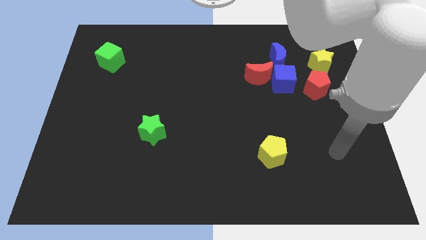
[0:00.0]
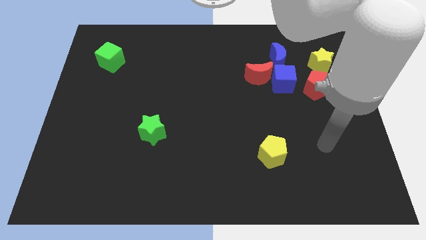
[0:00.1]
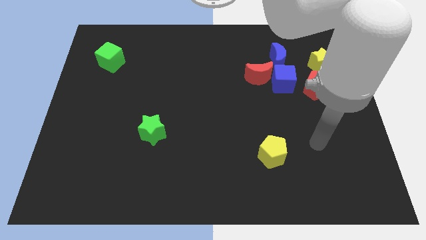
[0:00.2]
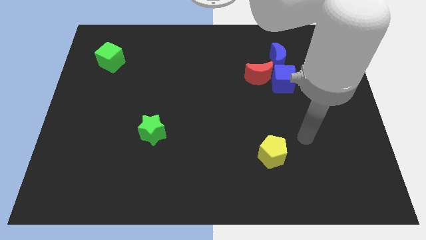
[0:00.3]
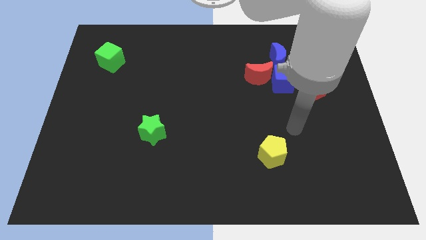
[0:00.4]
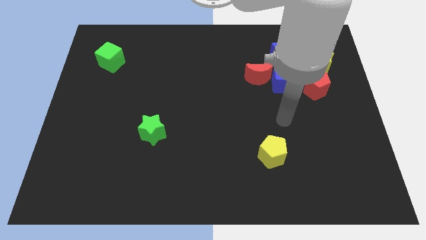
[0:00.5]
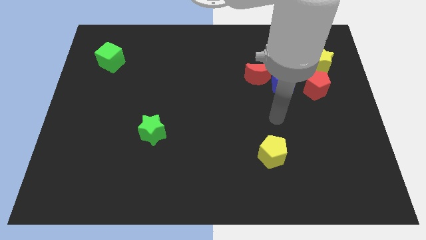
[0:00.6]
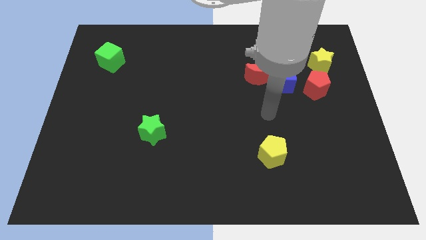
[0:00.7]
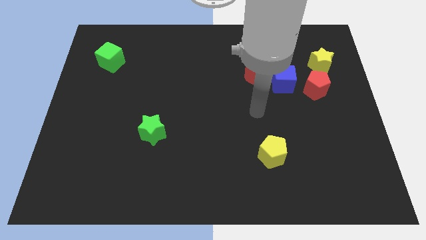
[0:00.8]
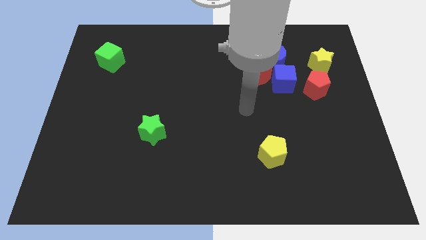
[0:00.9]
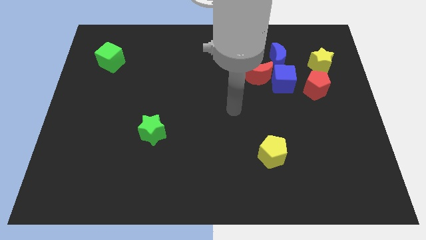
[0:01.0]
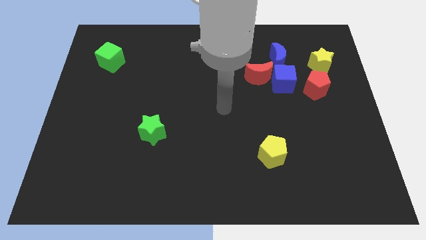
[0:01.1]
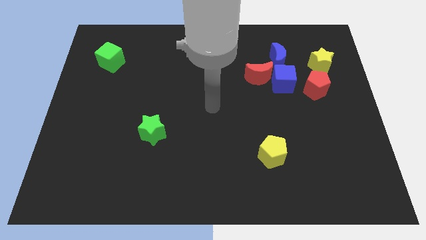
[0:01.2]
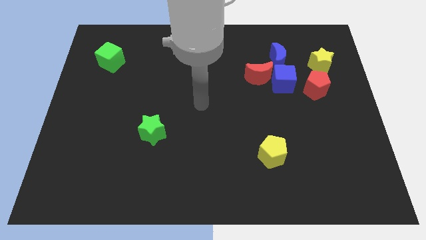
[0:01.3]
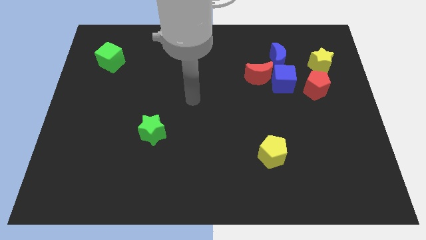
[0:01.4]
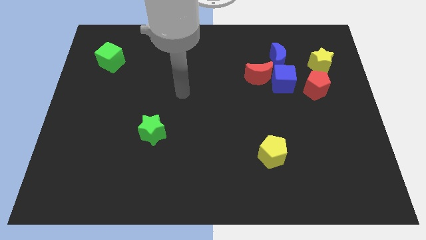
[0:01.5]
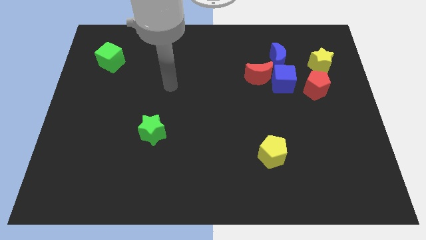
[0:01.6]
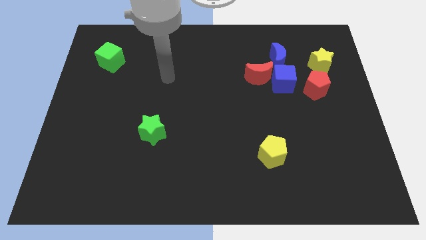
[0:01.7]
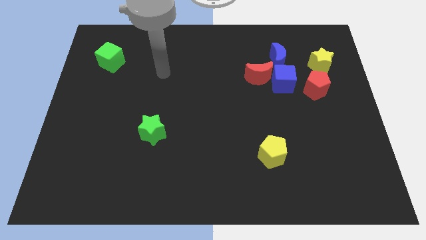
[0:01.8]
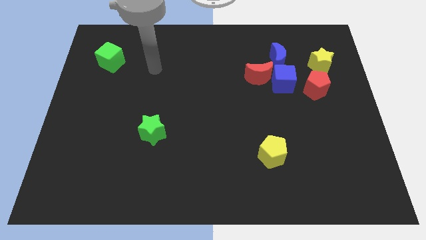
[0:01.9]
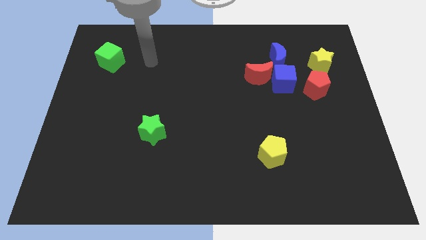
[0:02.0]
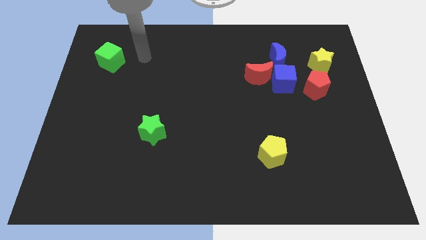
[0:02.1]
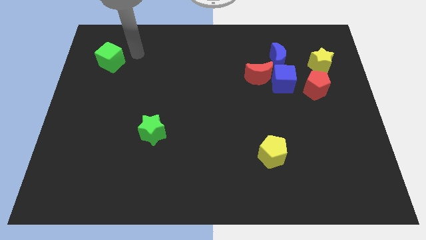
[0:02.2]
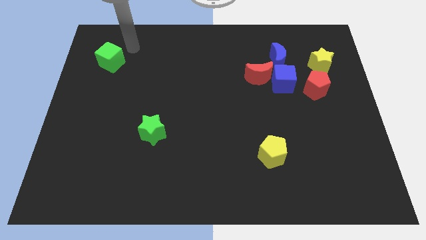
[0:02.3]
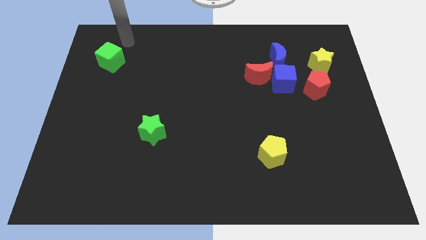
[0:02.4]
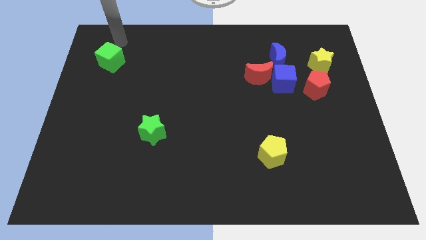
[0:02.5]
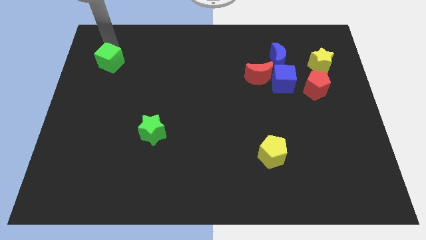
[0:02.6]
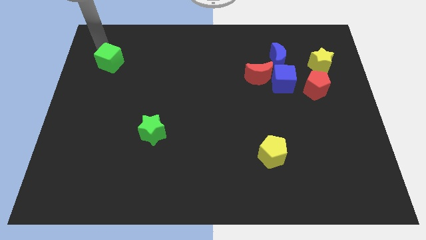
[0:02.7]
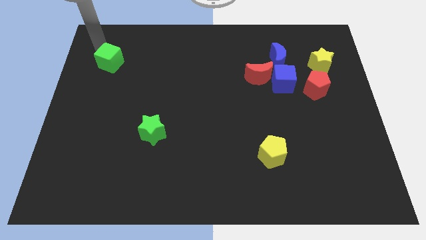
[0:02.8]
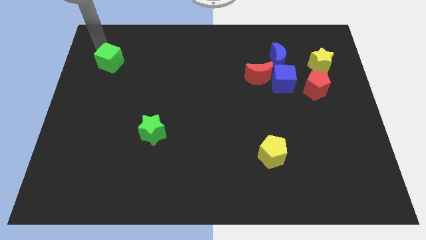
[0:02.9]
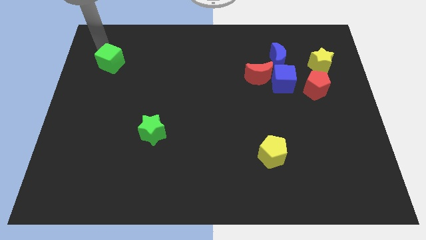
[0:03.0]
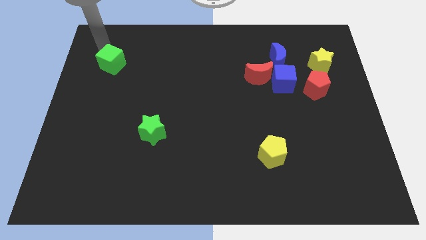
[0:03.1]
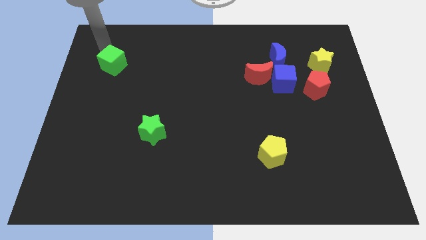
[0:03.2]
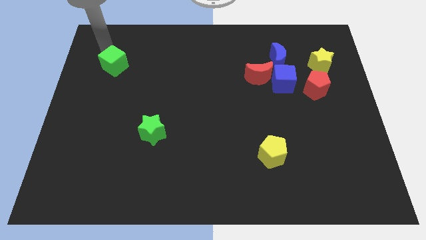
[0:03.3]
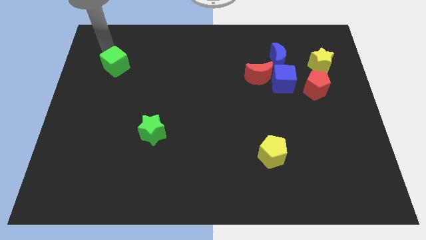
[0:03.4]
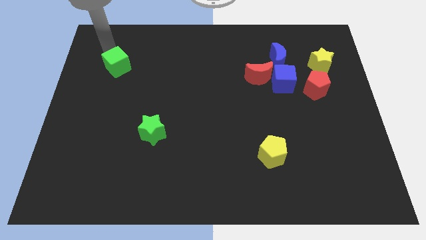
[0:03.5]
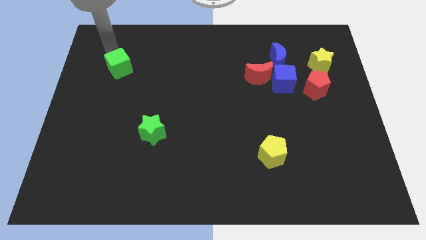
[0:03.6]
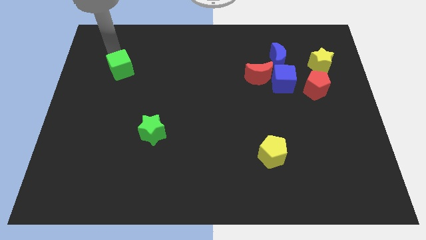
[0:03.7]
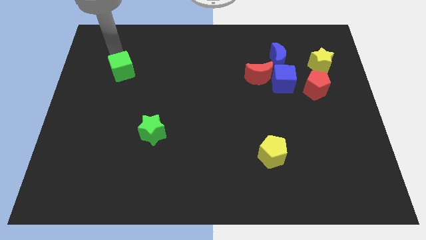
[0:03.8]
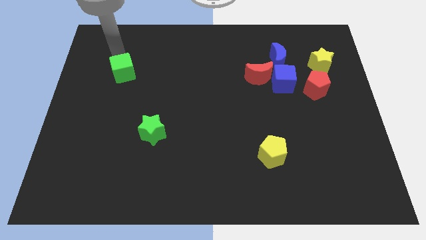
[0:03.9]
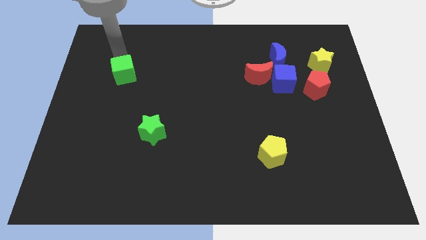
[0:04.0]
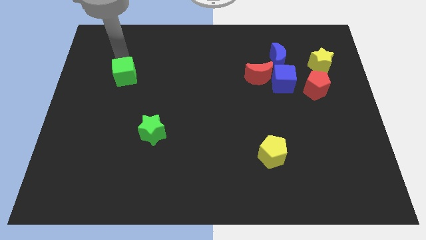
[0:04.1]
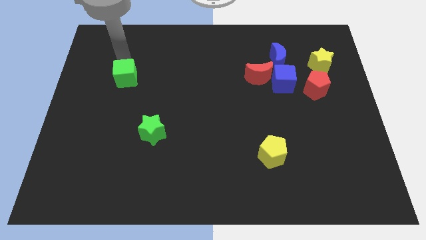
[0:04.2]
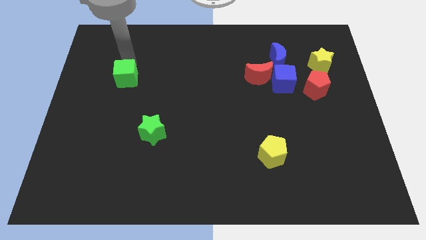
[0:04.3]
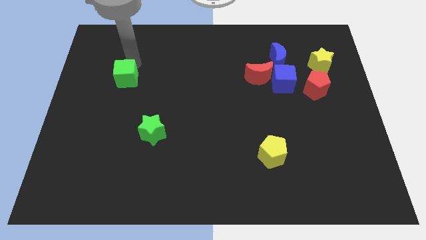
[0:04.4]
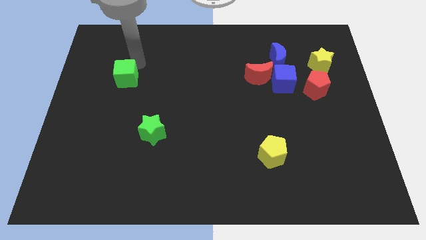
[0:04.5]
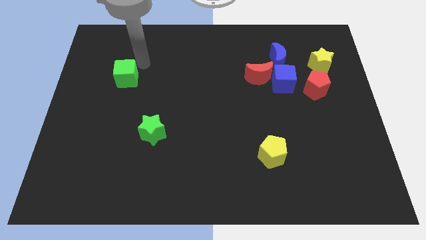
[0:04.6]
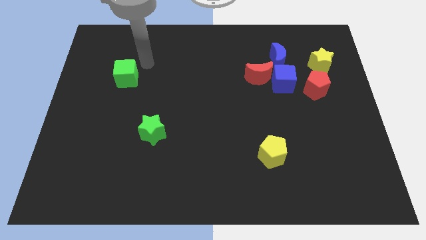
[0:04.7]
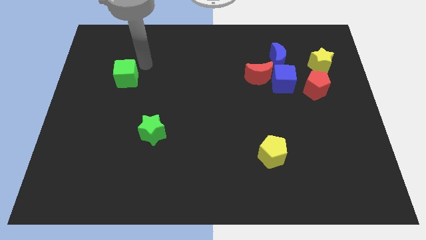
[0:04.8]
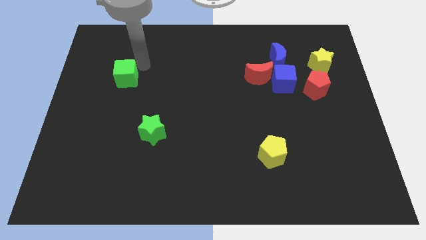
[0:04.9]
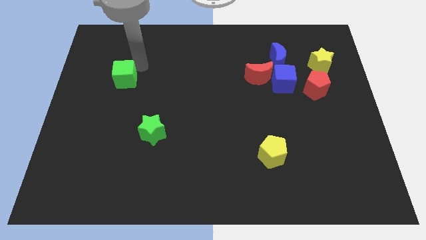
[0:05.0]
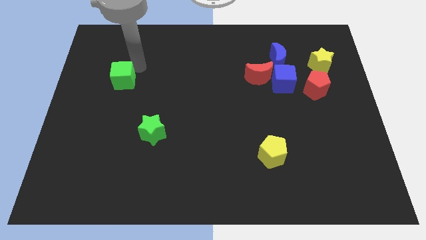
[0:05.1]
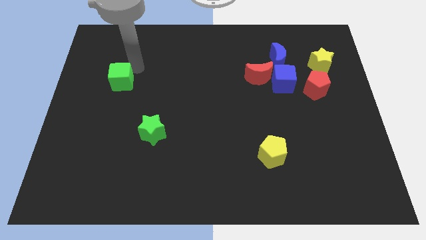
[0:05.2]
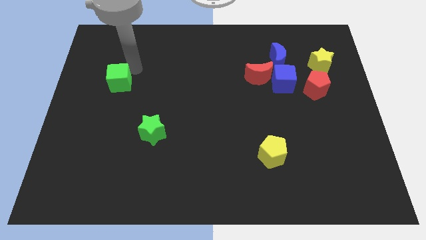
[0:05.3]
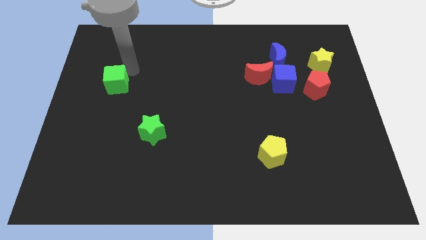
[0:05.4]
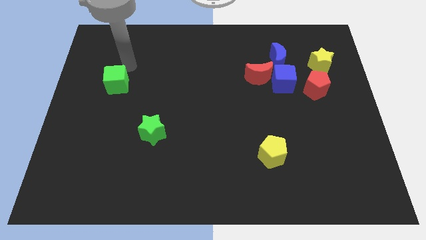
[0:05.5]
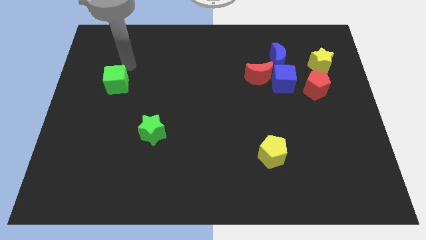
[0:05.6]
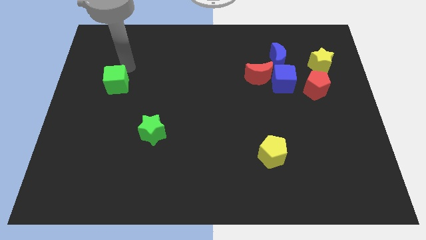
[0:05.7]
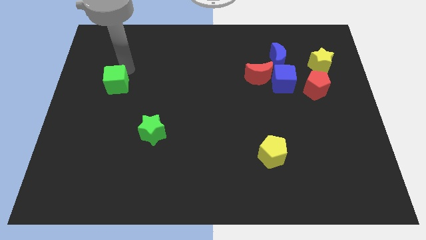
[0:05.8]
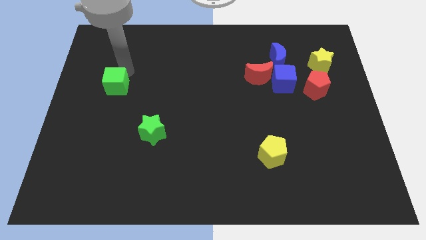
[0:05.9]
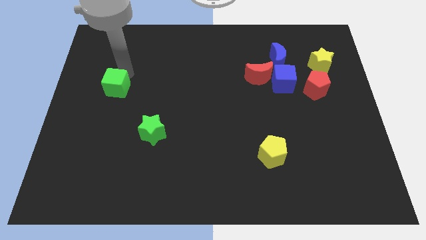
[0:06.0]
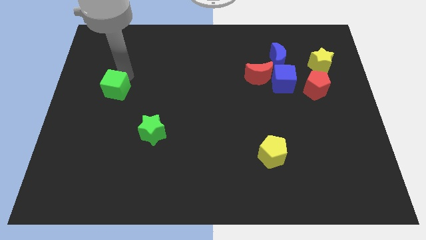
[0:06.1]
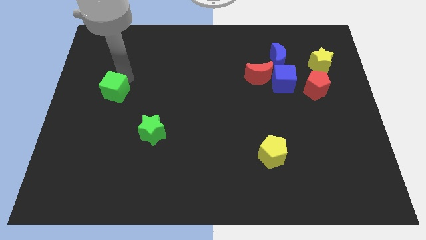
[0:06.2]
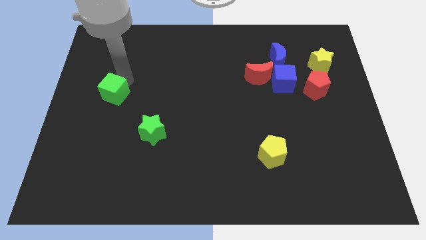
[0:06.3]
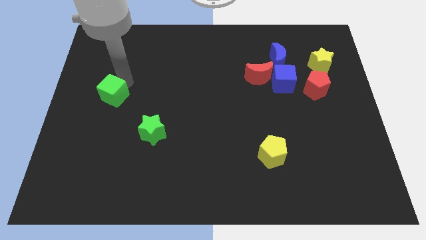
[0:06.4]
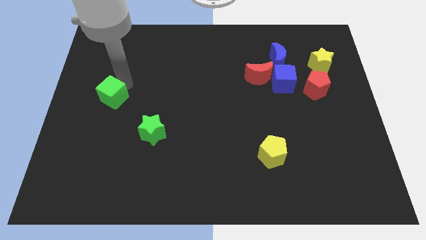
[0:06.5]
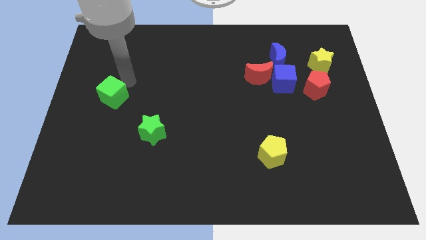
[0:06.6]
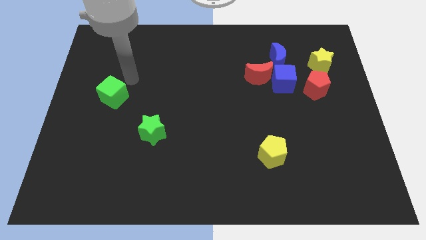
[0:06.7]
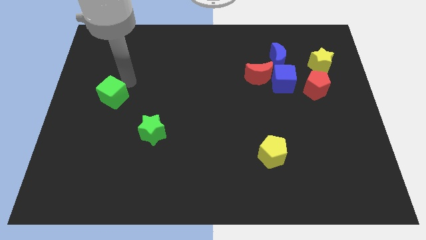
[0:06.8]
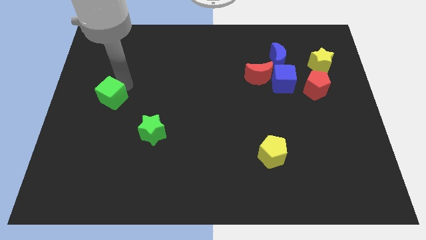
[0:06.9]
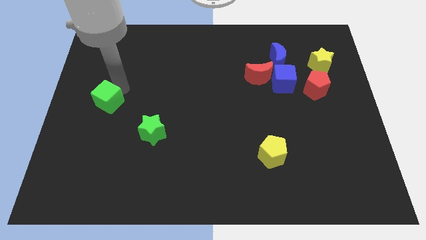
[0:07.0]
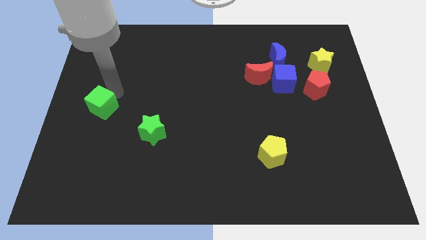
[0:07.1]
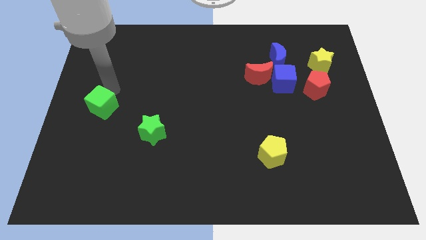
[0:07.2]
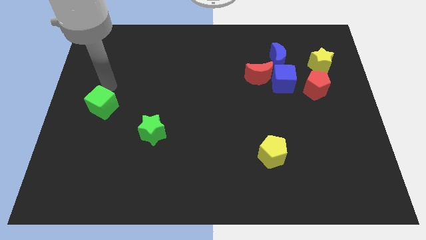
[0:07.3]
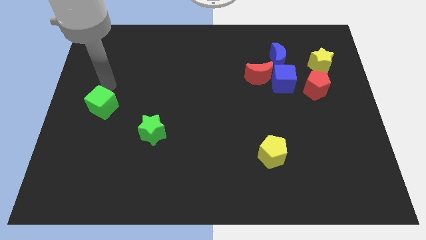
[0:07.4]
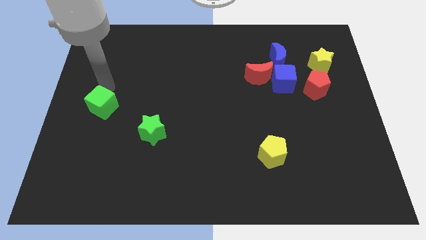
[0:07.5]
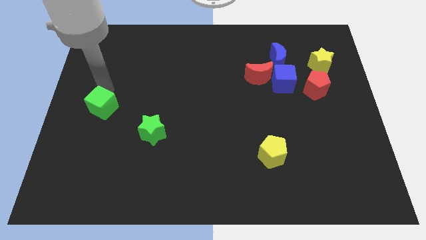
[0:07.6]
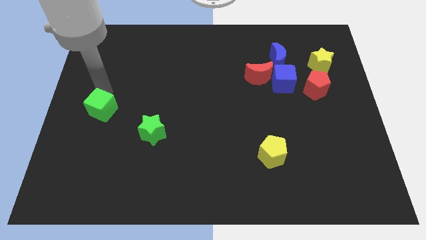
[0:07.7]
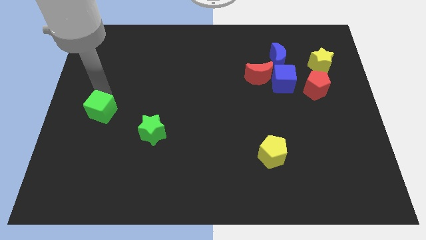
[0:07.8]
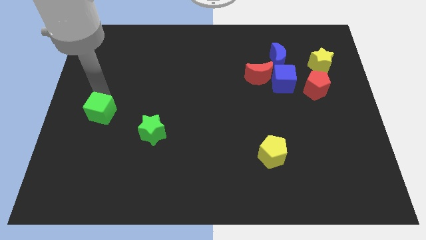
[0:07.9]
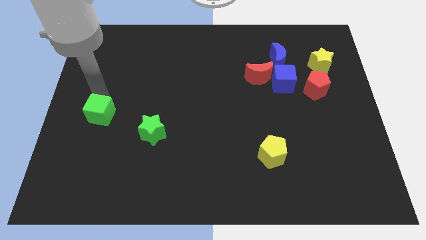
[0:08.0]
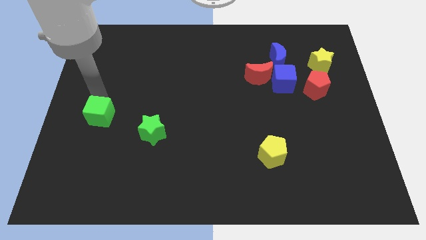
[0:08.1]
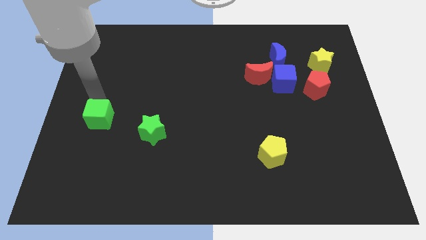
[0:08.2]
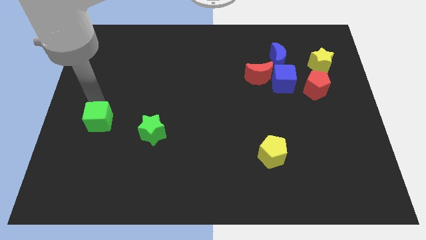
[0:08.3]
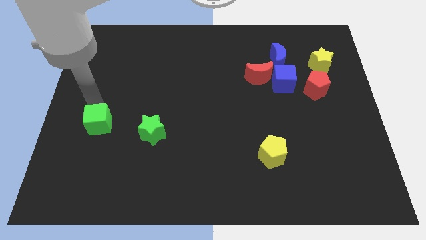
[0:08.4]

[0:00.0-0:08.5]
move the green cube down
